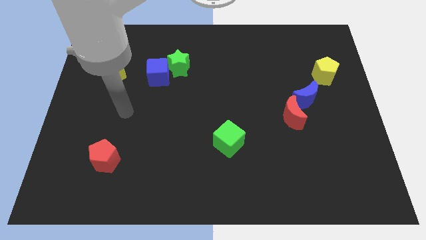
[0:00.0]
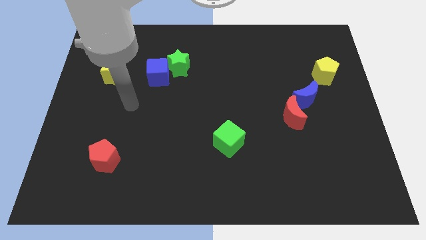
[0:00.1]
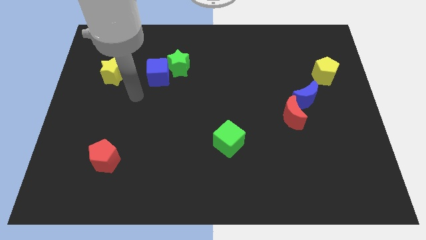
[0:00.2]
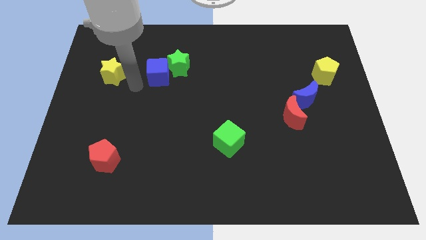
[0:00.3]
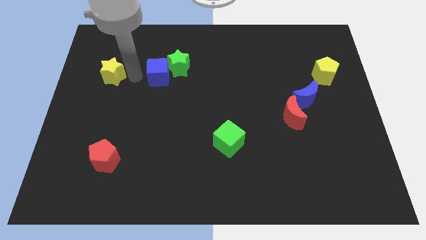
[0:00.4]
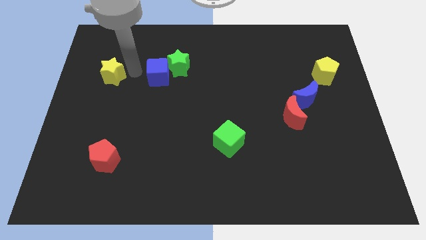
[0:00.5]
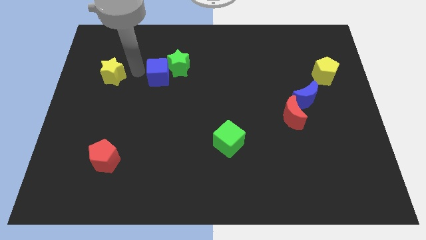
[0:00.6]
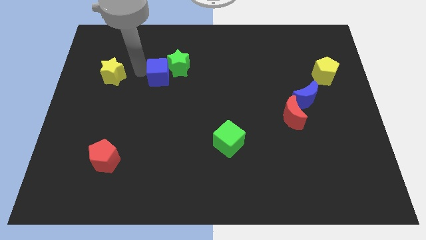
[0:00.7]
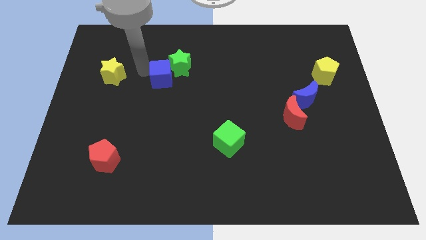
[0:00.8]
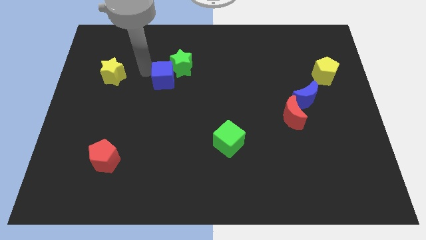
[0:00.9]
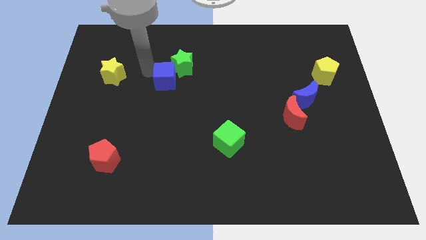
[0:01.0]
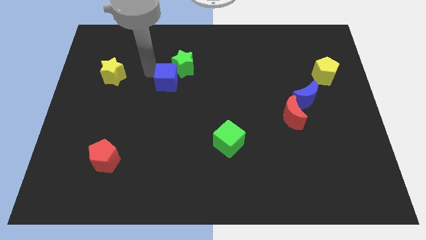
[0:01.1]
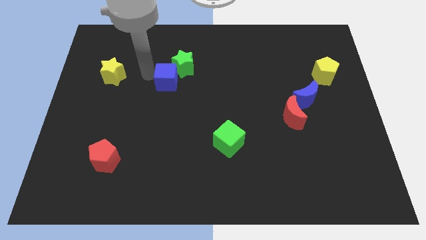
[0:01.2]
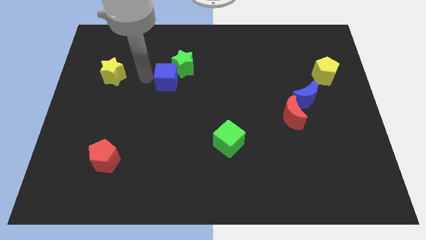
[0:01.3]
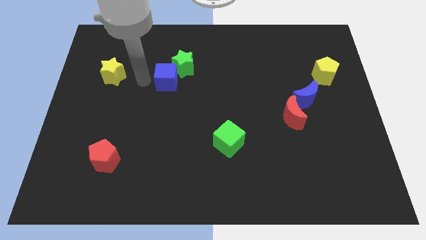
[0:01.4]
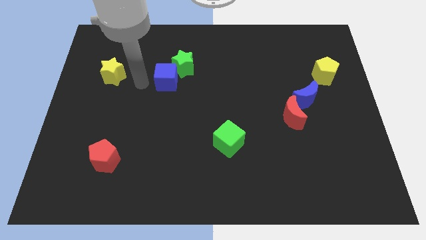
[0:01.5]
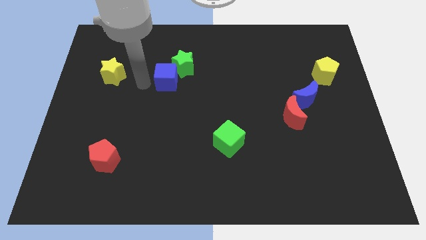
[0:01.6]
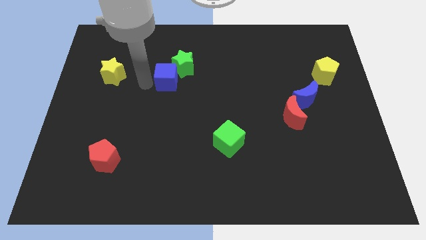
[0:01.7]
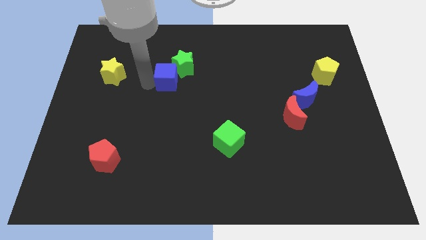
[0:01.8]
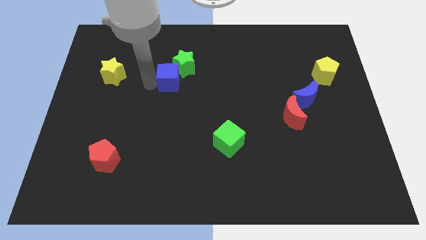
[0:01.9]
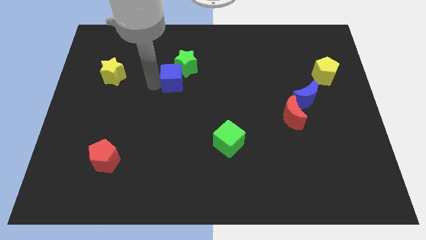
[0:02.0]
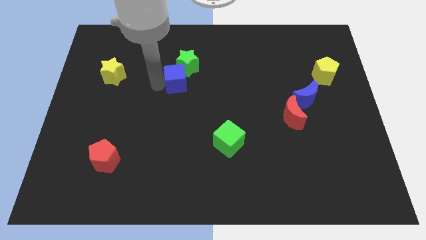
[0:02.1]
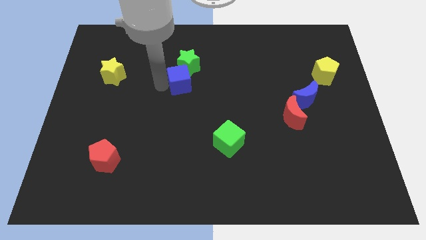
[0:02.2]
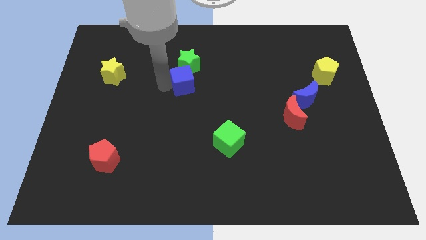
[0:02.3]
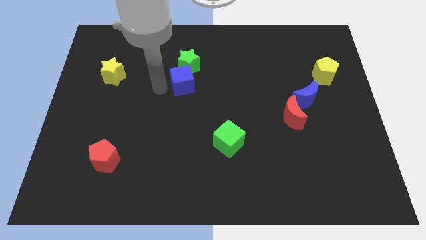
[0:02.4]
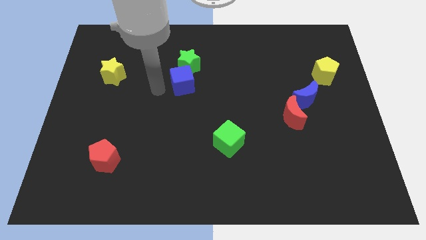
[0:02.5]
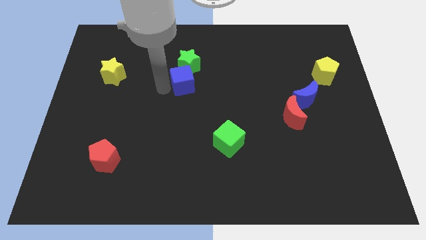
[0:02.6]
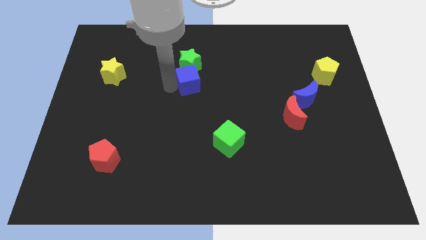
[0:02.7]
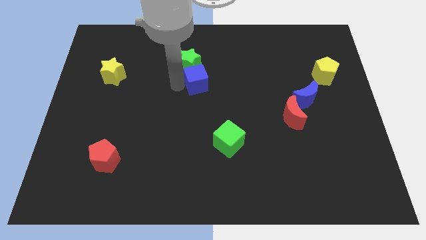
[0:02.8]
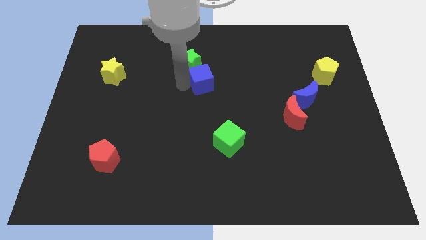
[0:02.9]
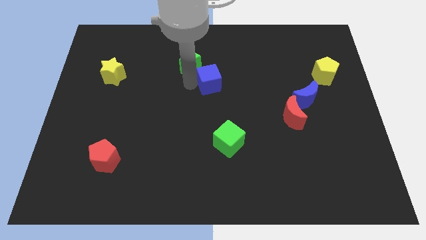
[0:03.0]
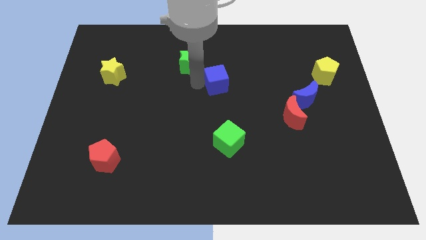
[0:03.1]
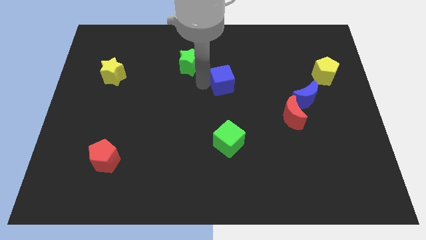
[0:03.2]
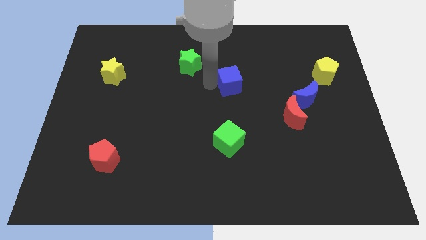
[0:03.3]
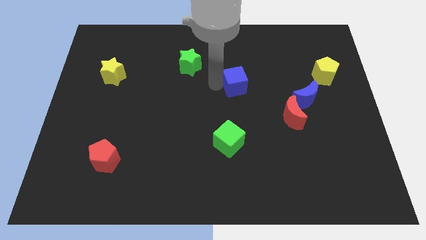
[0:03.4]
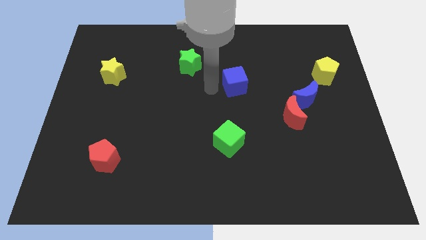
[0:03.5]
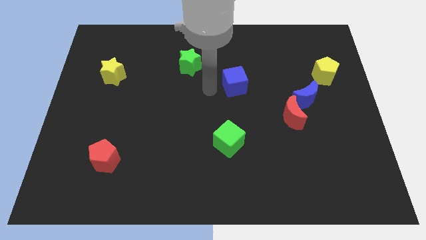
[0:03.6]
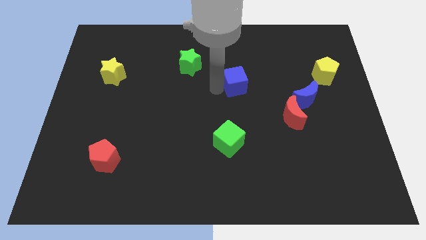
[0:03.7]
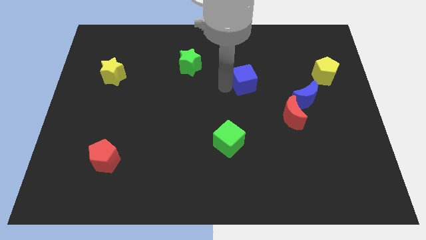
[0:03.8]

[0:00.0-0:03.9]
move the blue cube to the right

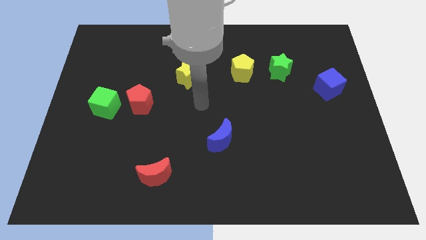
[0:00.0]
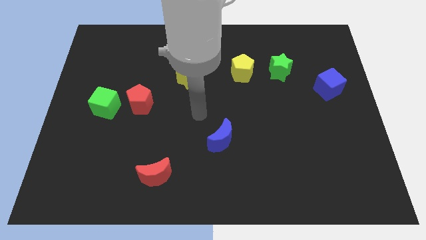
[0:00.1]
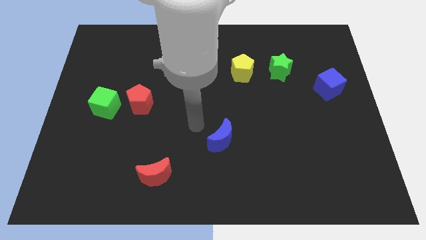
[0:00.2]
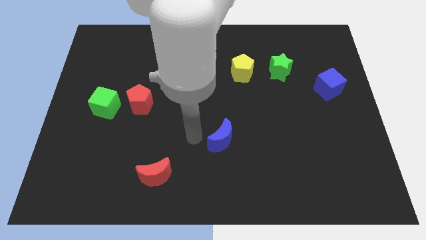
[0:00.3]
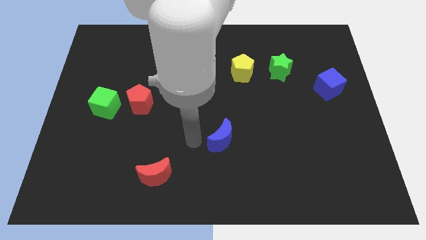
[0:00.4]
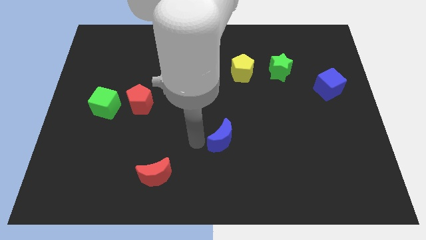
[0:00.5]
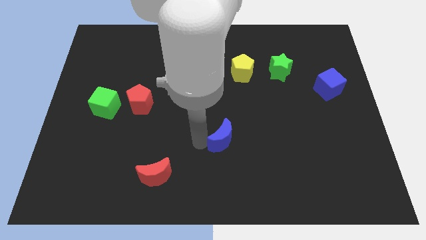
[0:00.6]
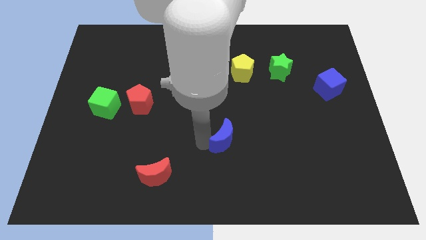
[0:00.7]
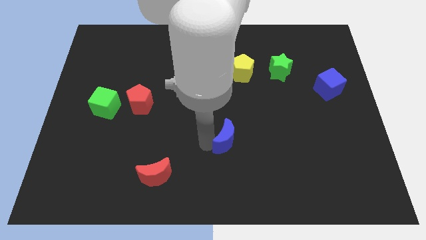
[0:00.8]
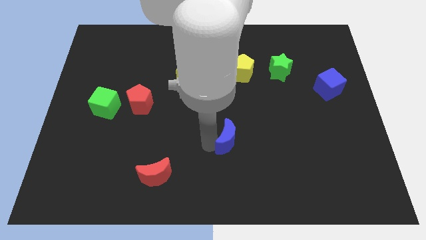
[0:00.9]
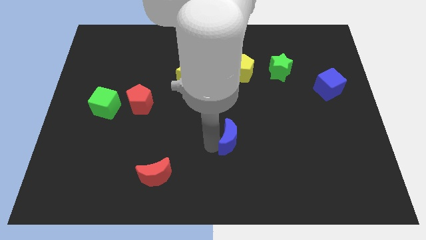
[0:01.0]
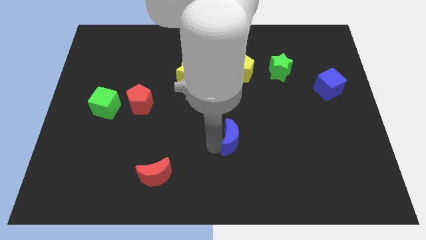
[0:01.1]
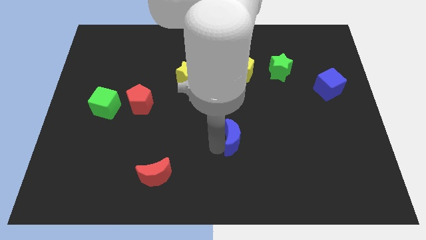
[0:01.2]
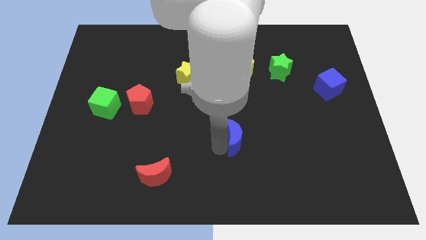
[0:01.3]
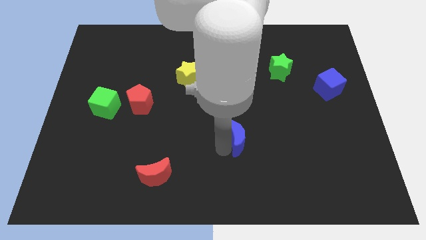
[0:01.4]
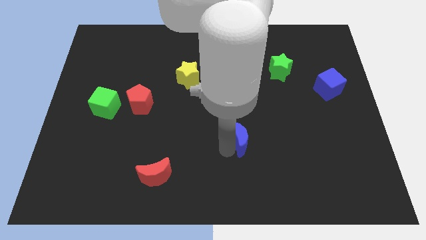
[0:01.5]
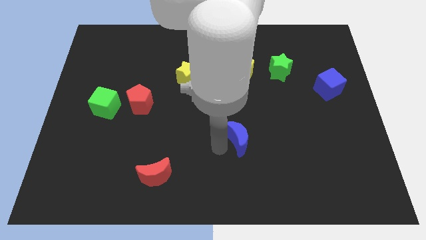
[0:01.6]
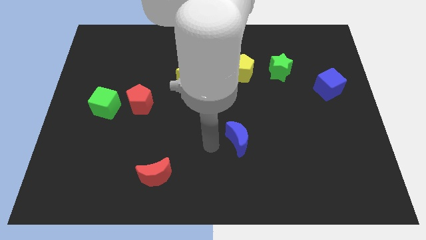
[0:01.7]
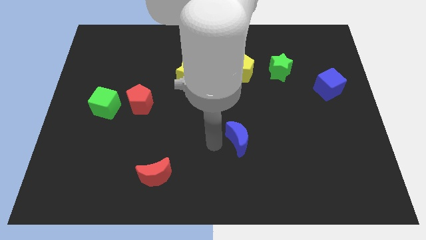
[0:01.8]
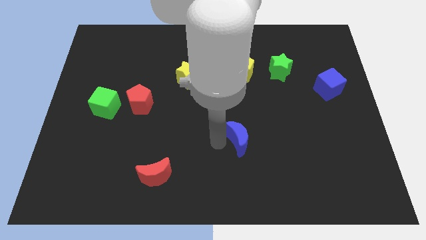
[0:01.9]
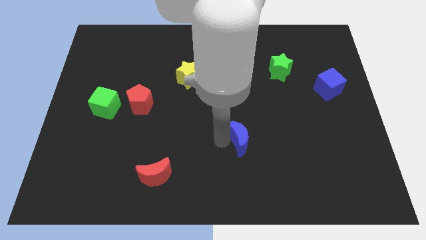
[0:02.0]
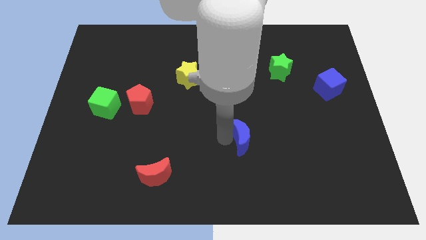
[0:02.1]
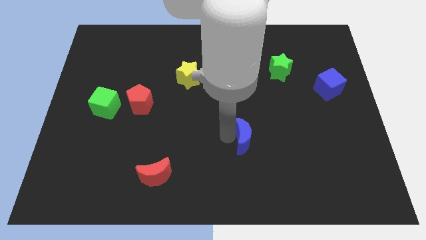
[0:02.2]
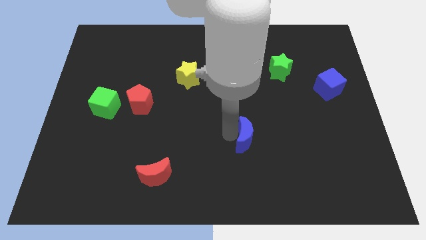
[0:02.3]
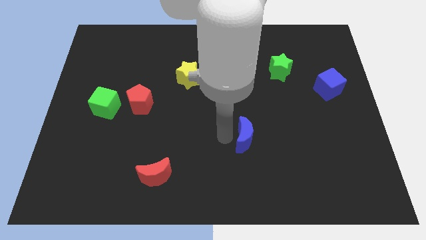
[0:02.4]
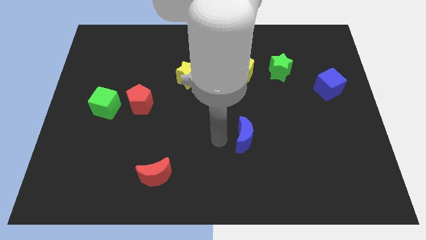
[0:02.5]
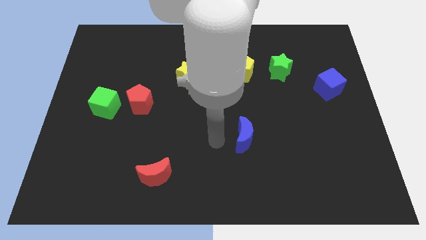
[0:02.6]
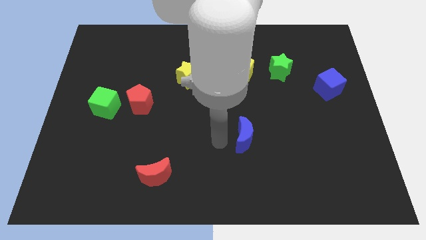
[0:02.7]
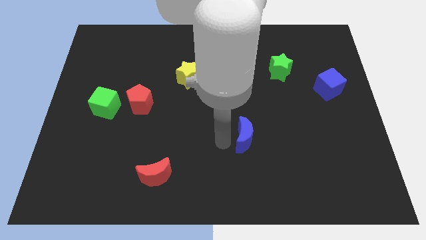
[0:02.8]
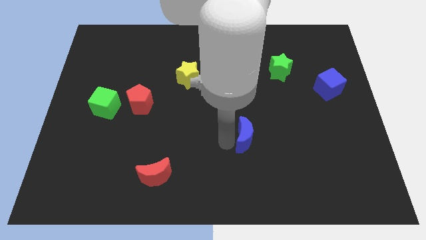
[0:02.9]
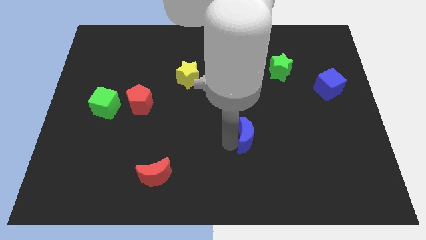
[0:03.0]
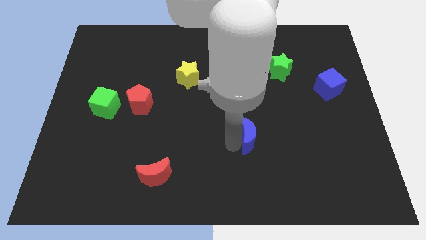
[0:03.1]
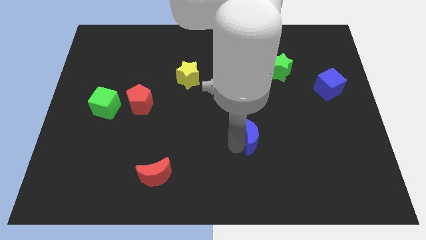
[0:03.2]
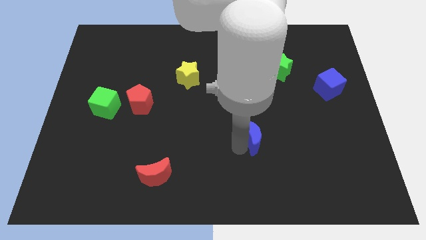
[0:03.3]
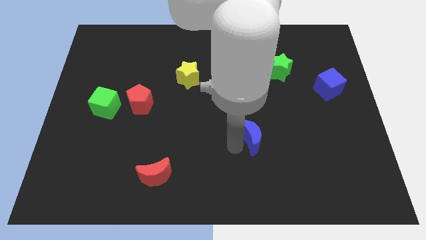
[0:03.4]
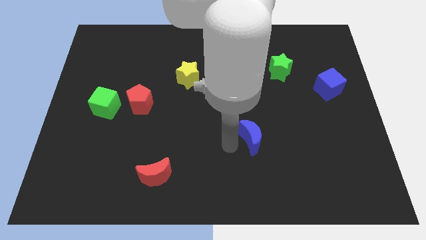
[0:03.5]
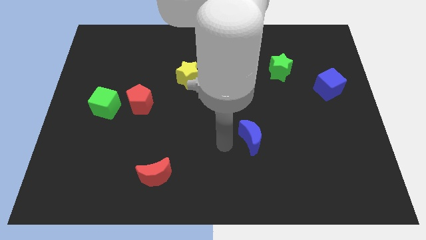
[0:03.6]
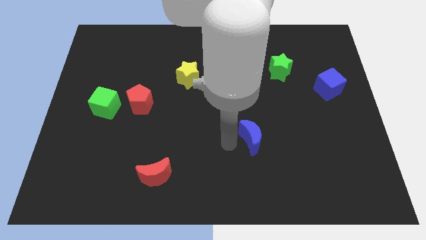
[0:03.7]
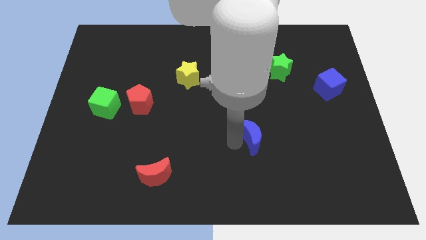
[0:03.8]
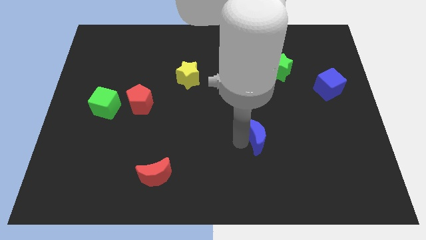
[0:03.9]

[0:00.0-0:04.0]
move the blue moon a little right
